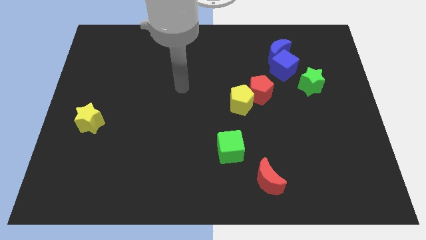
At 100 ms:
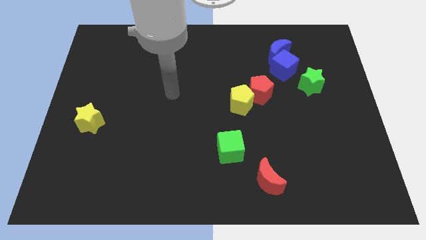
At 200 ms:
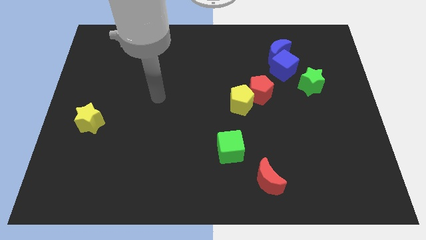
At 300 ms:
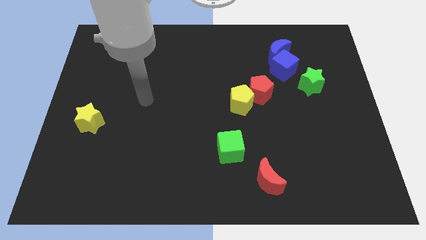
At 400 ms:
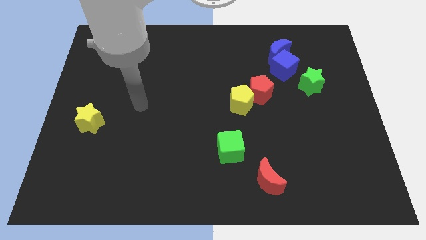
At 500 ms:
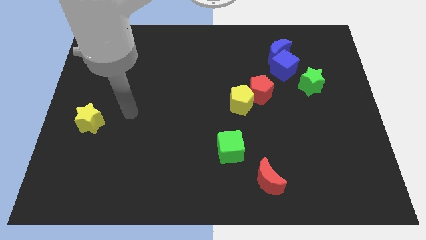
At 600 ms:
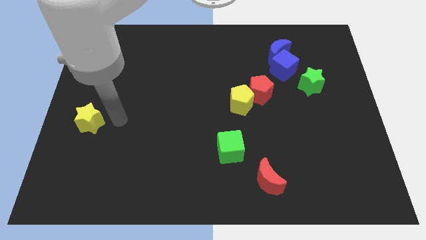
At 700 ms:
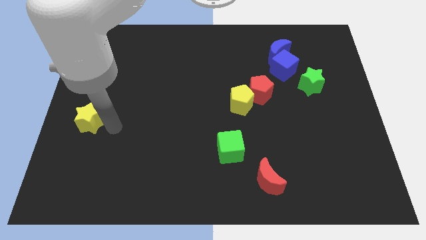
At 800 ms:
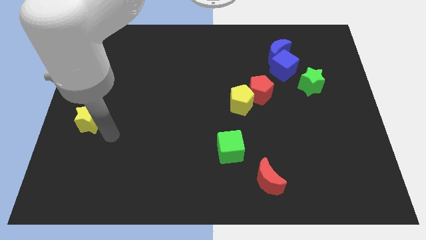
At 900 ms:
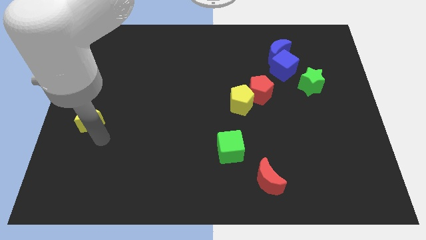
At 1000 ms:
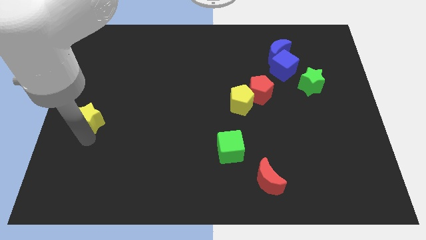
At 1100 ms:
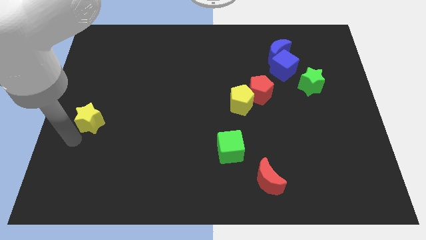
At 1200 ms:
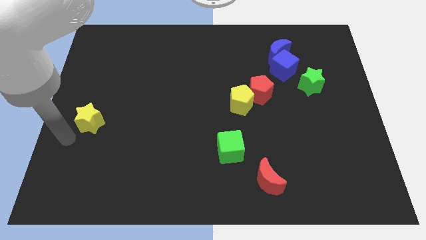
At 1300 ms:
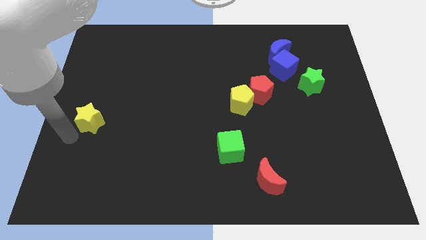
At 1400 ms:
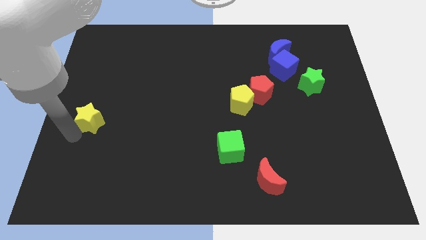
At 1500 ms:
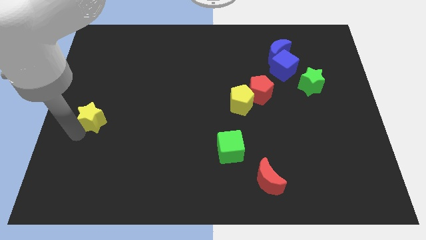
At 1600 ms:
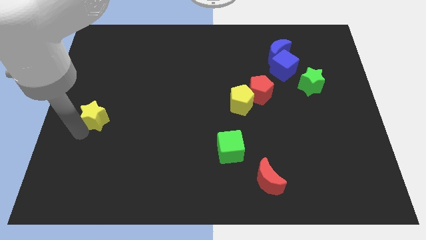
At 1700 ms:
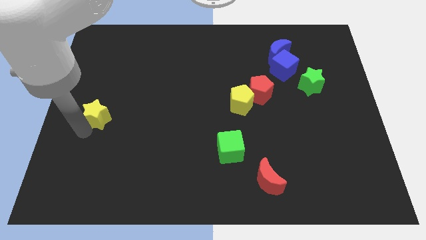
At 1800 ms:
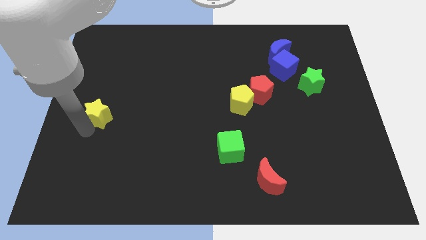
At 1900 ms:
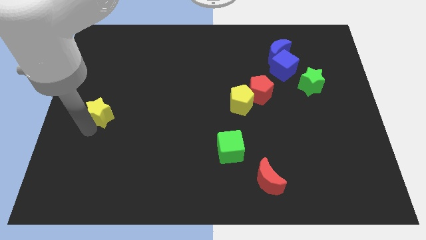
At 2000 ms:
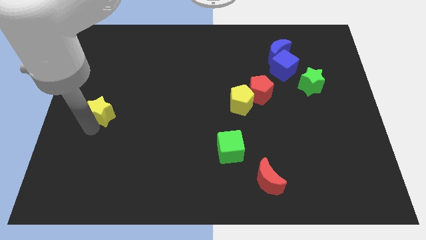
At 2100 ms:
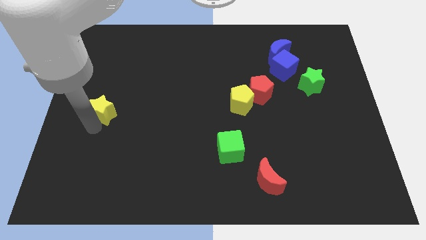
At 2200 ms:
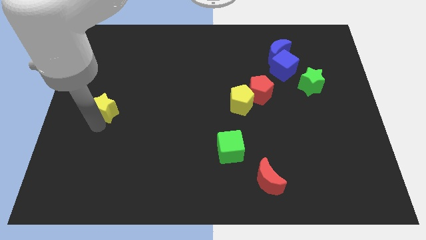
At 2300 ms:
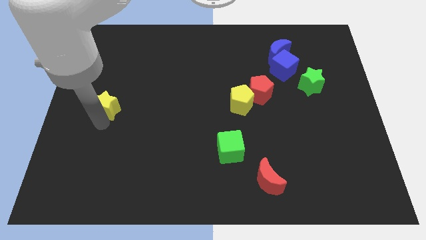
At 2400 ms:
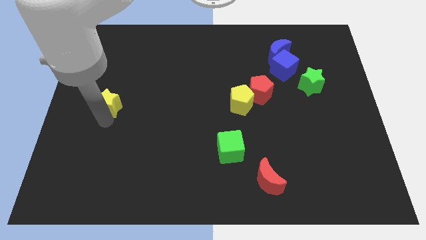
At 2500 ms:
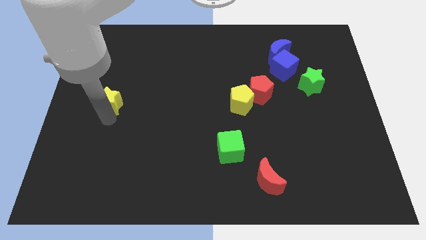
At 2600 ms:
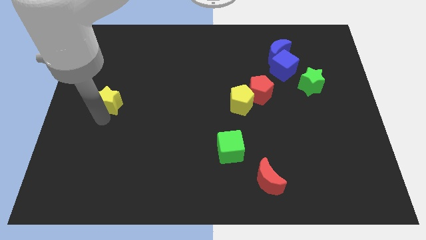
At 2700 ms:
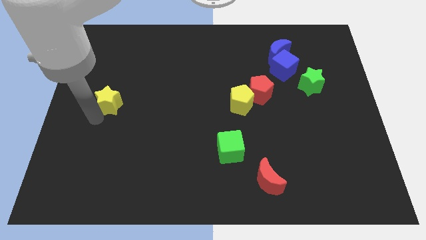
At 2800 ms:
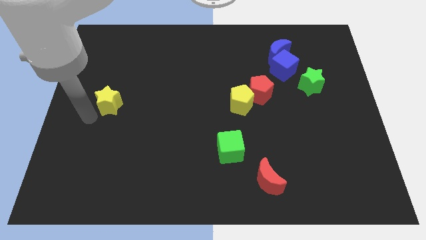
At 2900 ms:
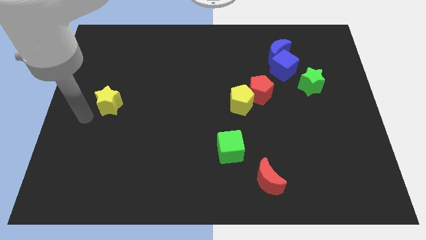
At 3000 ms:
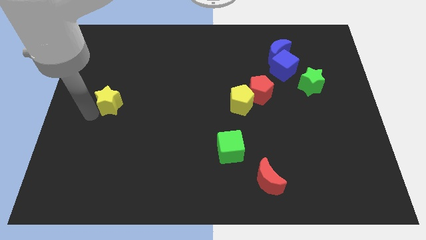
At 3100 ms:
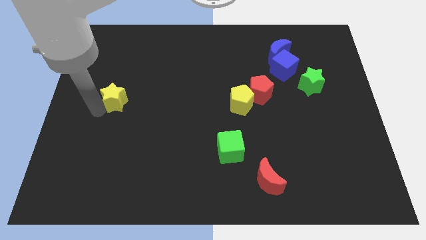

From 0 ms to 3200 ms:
push the yellow star up and right diagonally a little bit

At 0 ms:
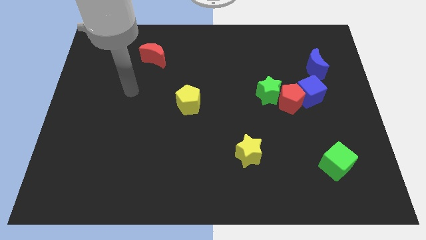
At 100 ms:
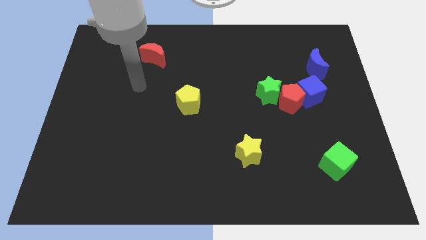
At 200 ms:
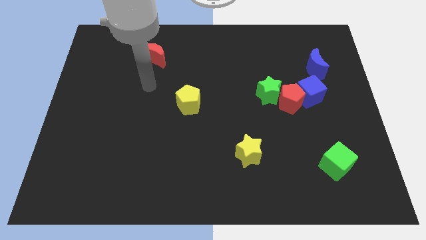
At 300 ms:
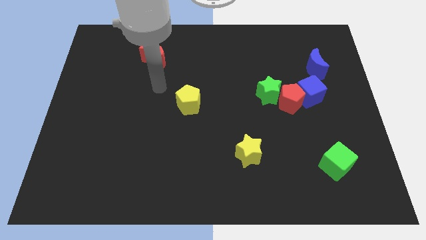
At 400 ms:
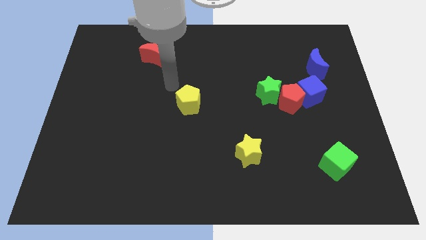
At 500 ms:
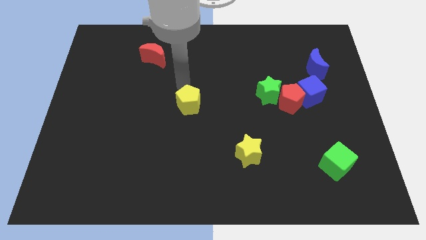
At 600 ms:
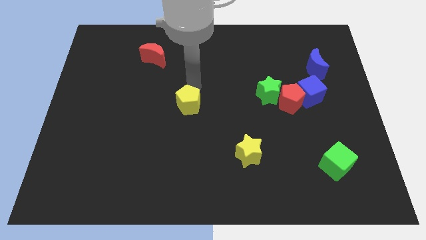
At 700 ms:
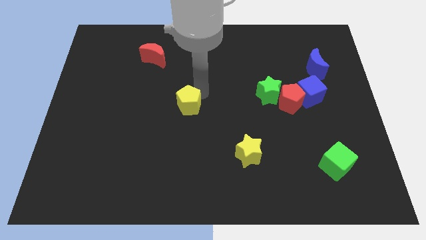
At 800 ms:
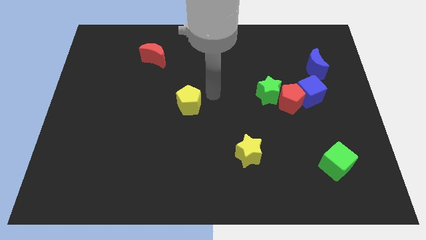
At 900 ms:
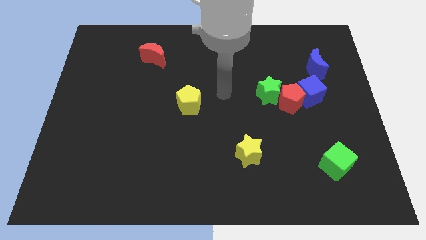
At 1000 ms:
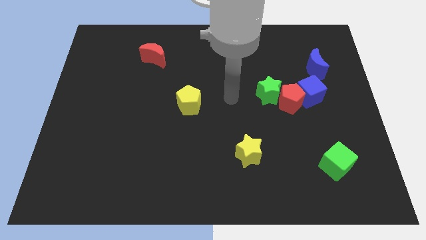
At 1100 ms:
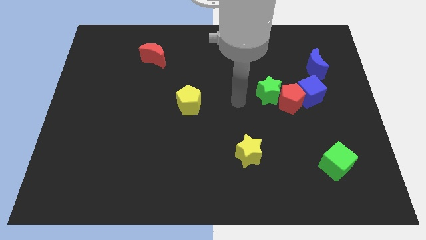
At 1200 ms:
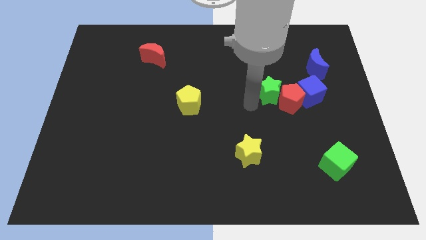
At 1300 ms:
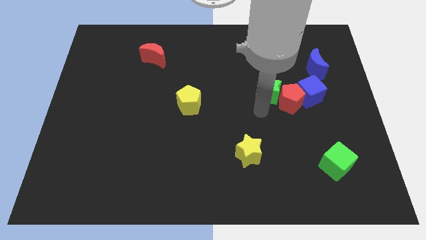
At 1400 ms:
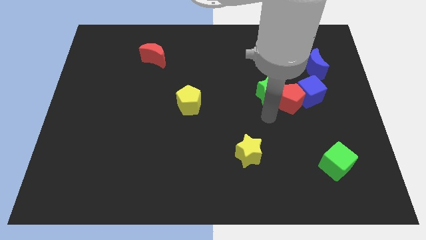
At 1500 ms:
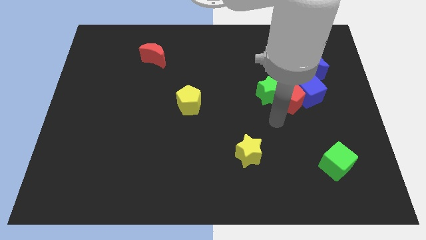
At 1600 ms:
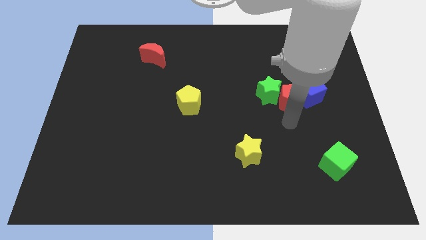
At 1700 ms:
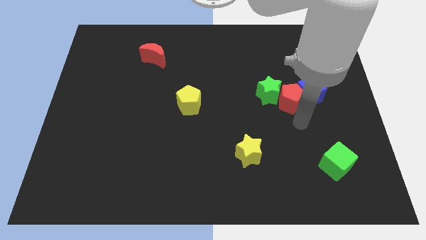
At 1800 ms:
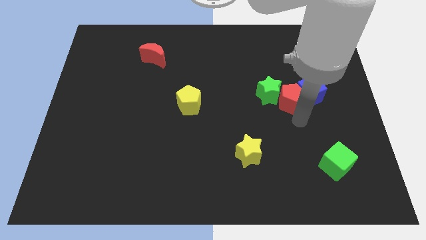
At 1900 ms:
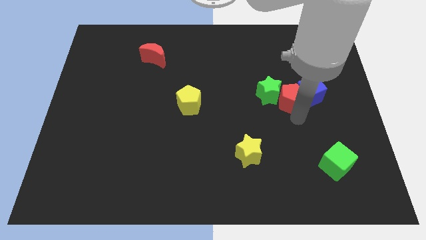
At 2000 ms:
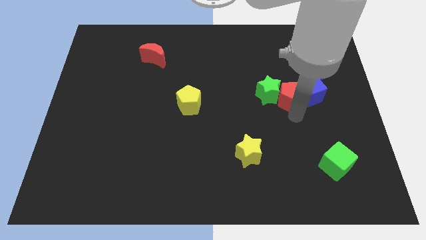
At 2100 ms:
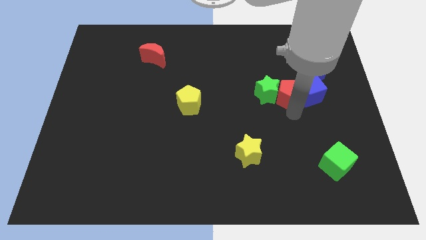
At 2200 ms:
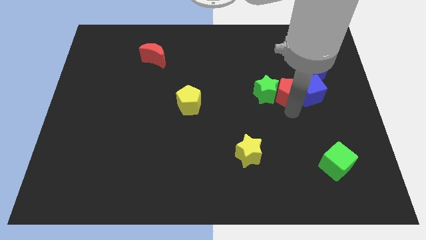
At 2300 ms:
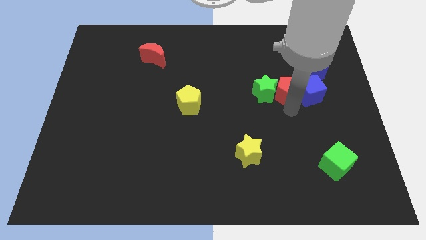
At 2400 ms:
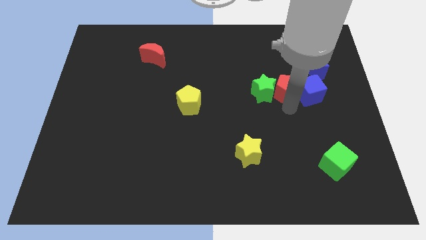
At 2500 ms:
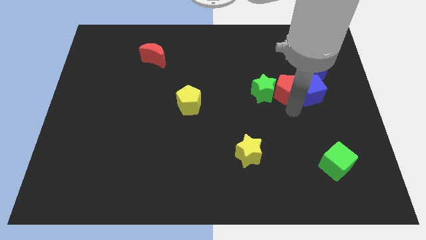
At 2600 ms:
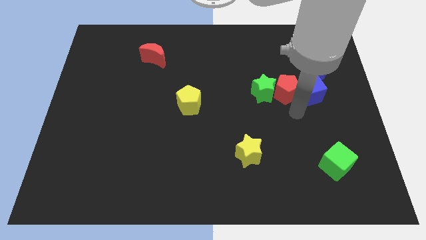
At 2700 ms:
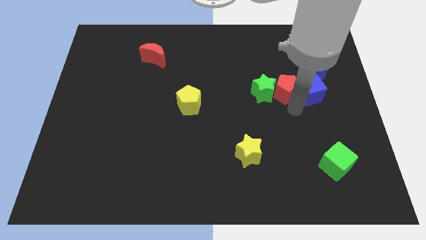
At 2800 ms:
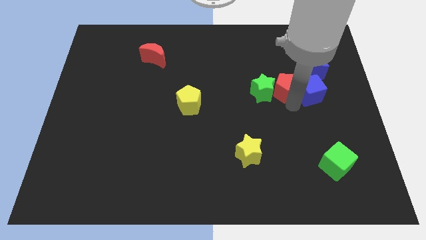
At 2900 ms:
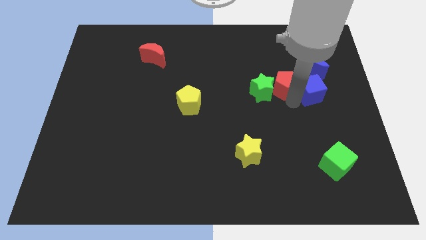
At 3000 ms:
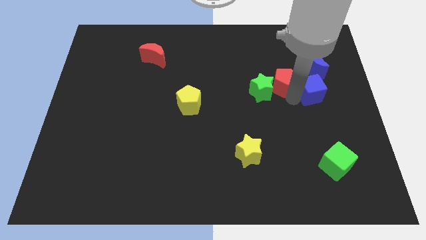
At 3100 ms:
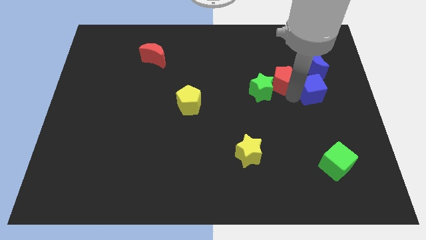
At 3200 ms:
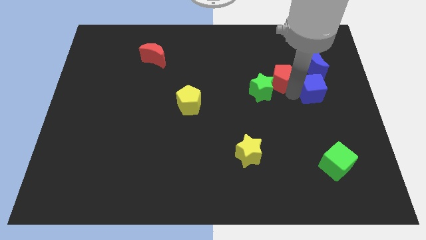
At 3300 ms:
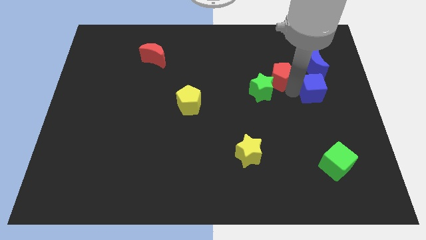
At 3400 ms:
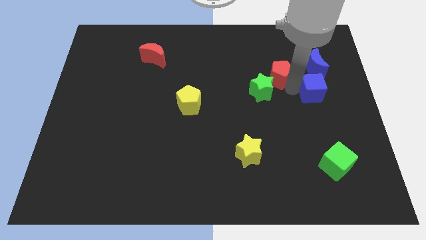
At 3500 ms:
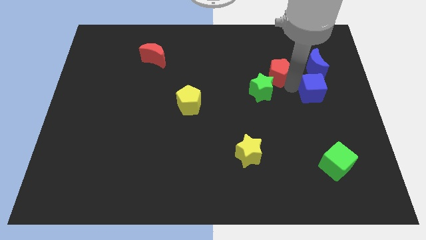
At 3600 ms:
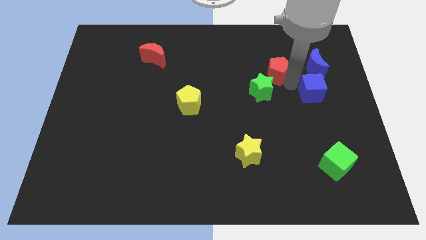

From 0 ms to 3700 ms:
move the red pentagon slightly upwards and to the left diagonally

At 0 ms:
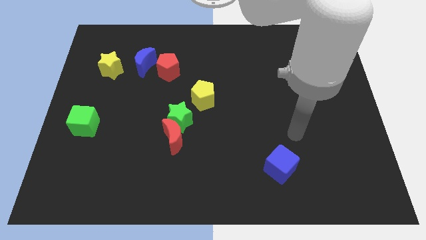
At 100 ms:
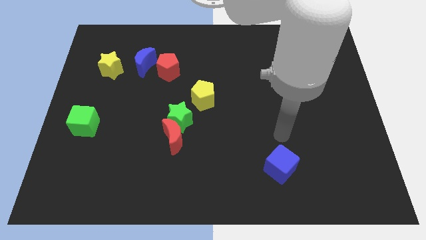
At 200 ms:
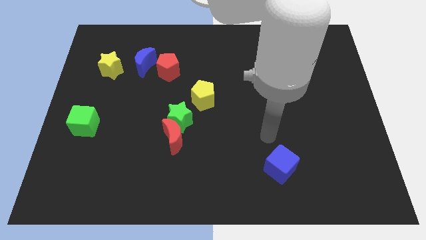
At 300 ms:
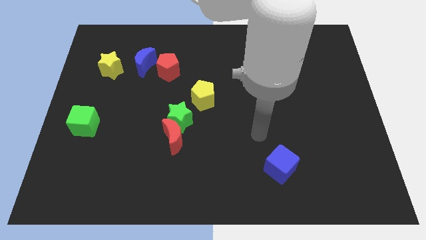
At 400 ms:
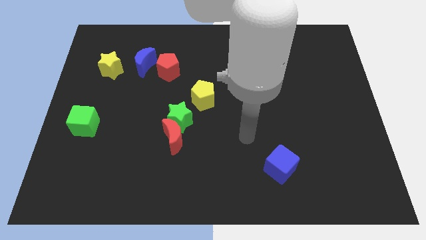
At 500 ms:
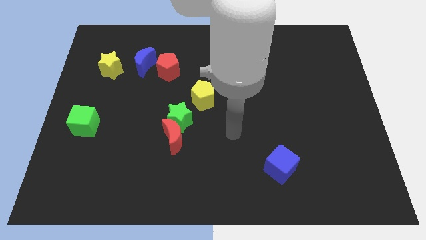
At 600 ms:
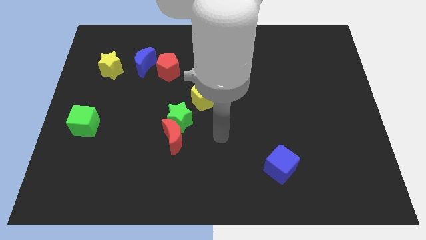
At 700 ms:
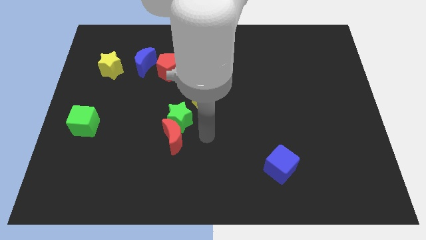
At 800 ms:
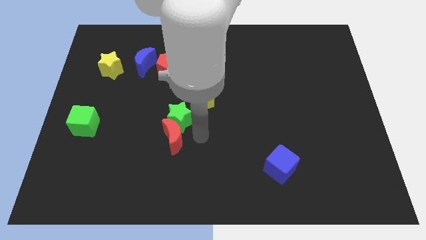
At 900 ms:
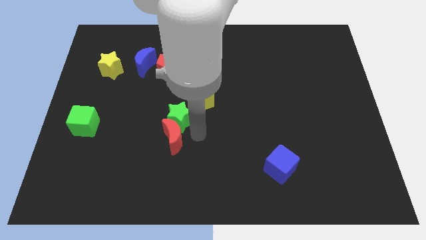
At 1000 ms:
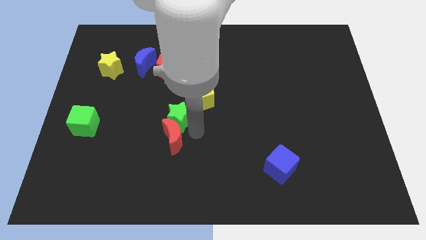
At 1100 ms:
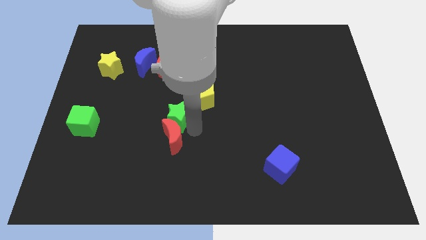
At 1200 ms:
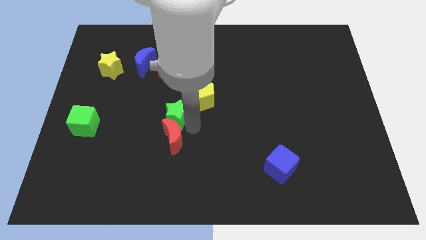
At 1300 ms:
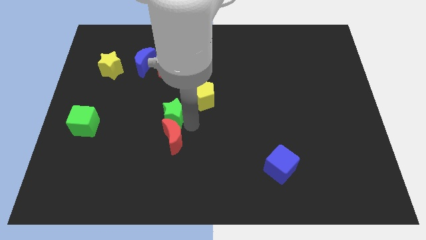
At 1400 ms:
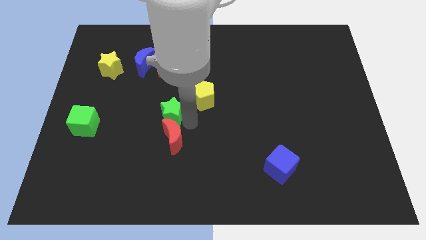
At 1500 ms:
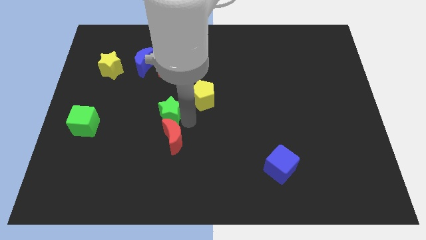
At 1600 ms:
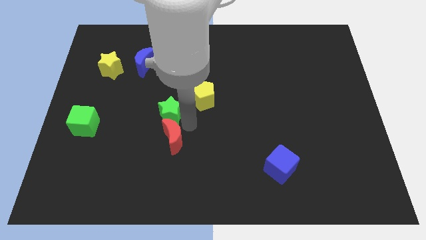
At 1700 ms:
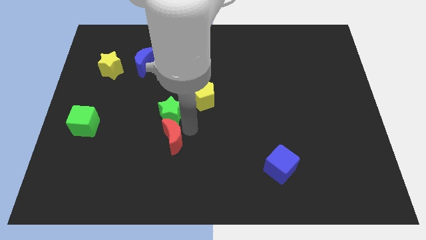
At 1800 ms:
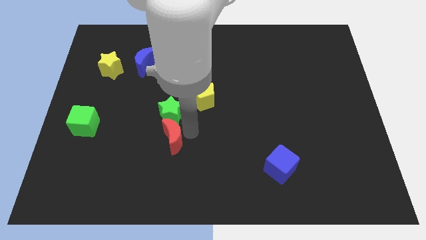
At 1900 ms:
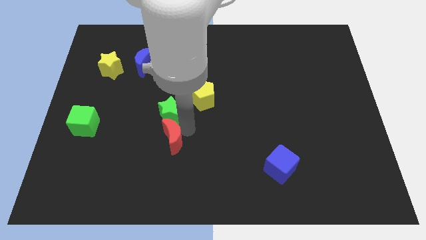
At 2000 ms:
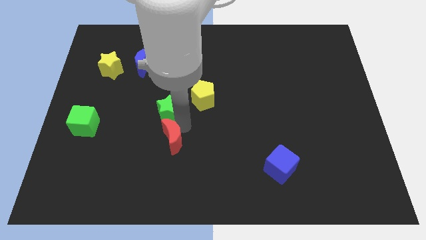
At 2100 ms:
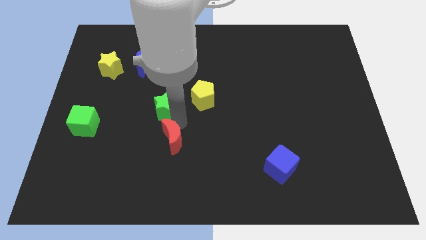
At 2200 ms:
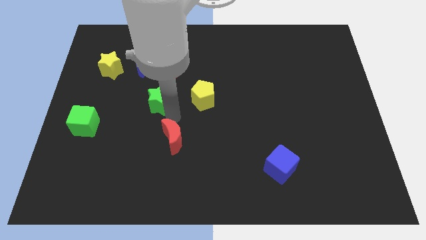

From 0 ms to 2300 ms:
slightly slide the green star upwards and then to the left
